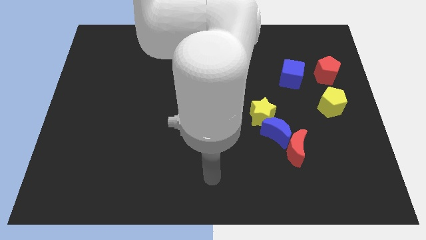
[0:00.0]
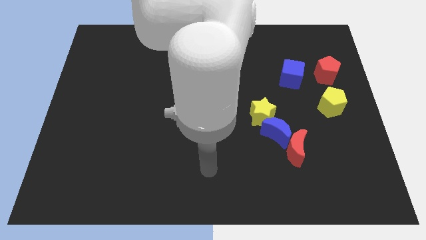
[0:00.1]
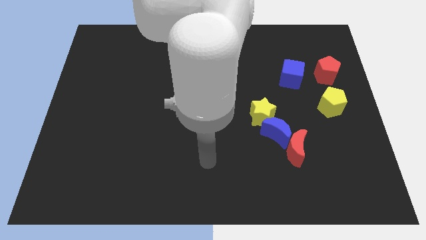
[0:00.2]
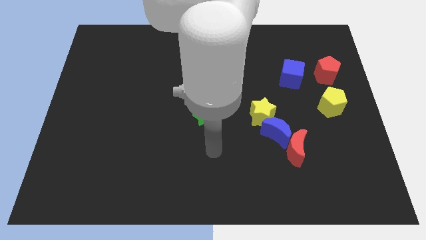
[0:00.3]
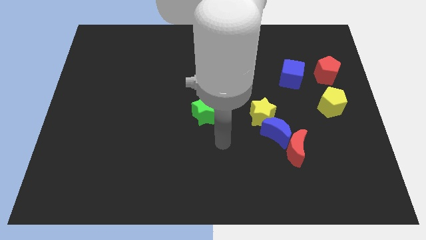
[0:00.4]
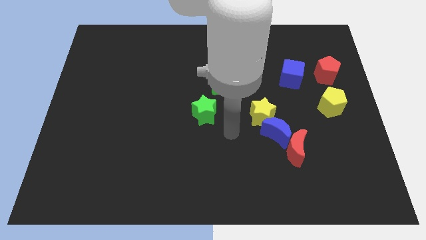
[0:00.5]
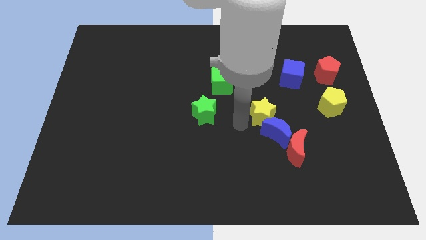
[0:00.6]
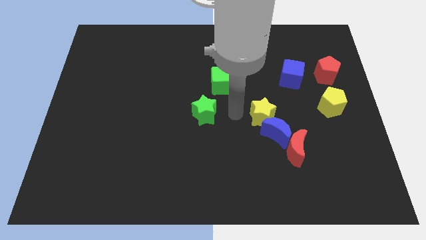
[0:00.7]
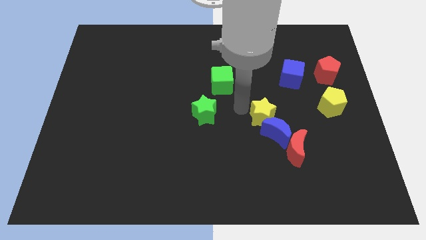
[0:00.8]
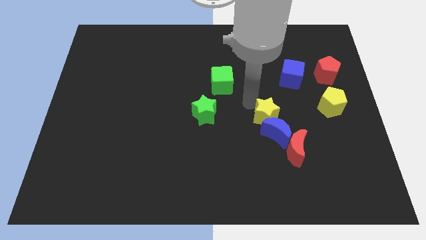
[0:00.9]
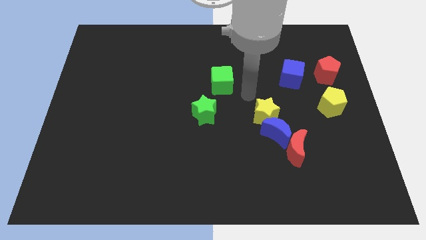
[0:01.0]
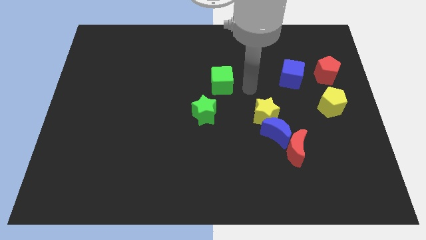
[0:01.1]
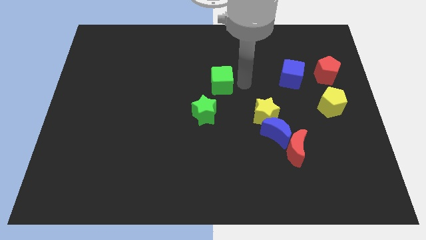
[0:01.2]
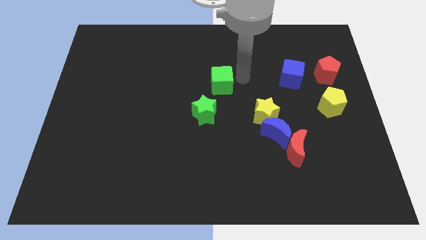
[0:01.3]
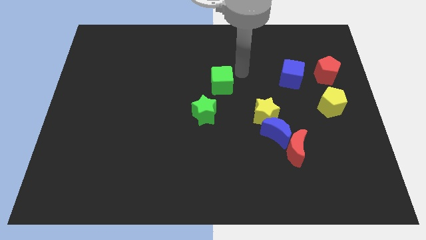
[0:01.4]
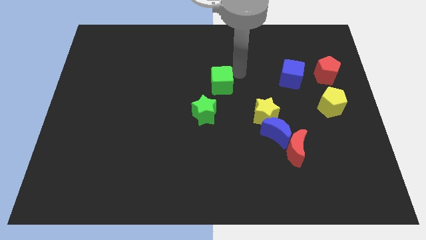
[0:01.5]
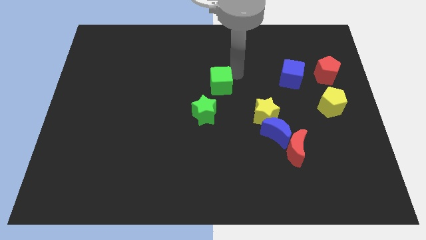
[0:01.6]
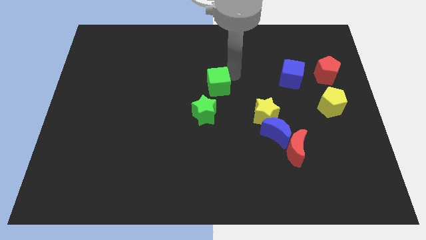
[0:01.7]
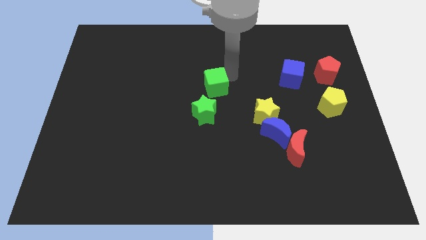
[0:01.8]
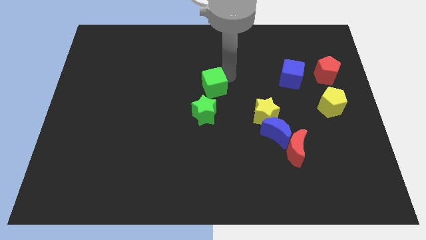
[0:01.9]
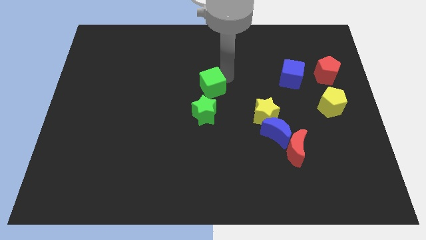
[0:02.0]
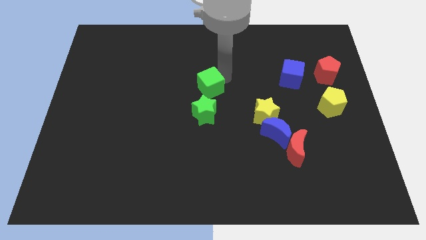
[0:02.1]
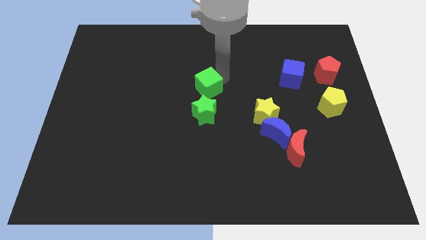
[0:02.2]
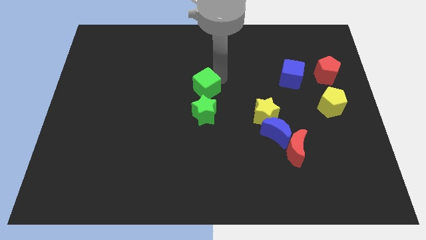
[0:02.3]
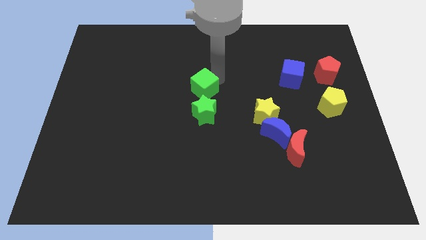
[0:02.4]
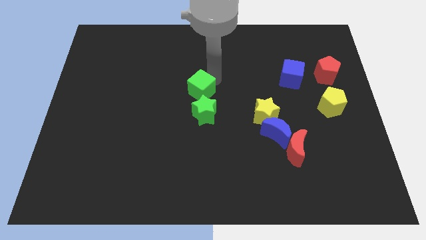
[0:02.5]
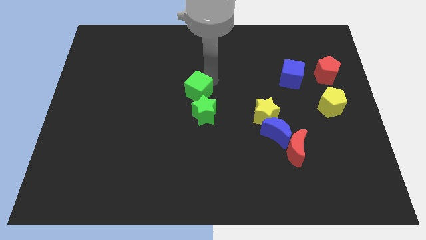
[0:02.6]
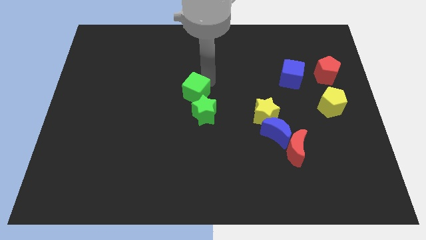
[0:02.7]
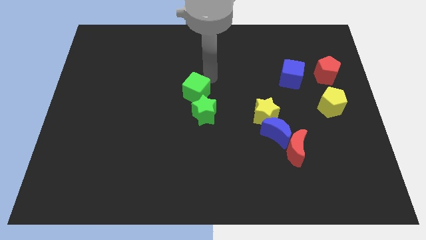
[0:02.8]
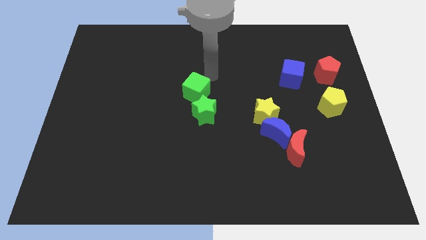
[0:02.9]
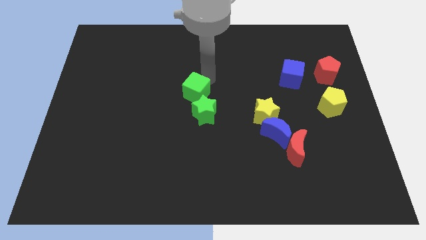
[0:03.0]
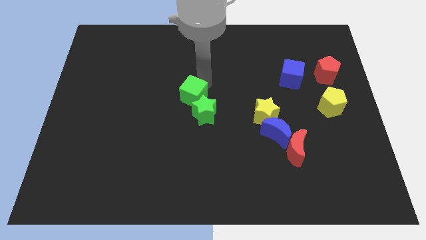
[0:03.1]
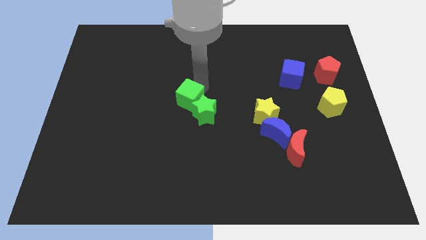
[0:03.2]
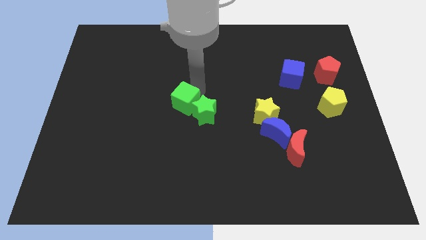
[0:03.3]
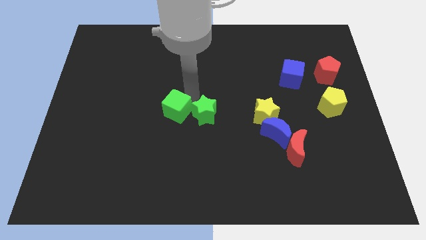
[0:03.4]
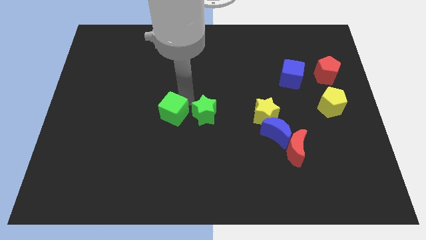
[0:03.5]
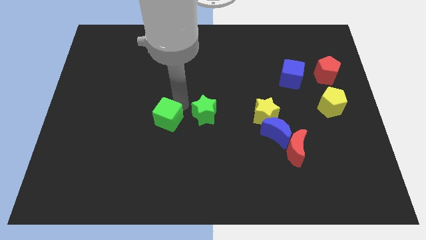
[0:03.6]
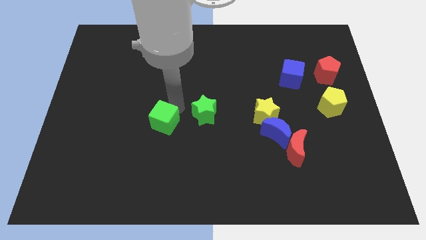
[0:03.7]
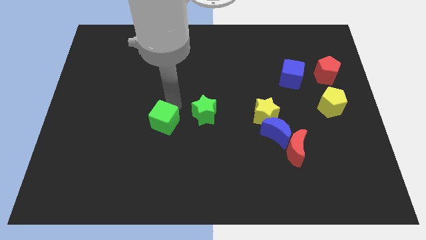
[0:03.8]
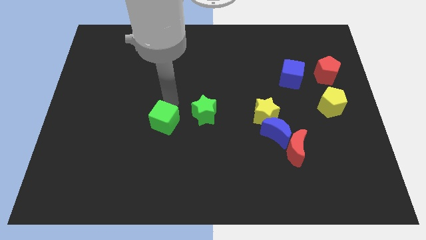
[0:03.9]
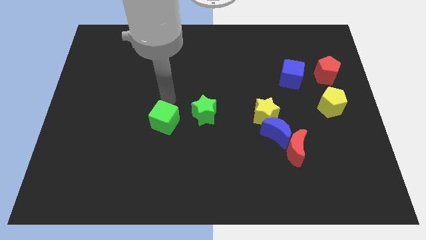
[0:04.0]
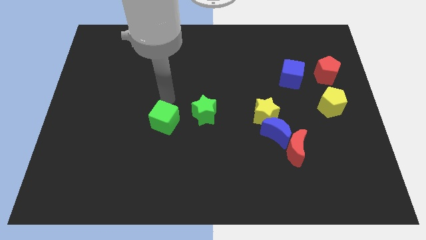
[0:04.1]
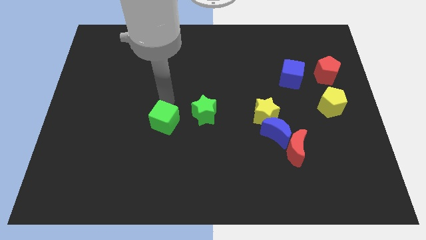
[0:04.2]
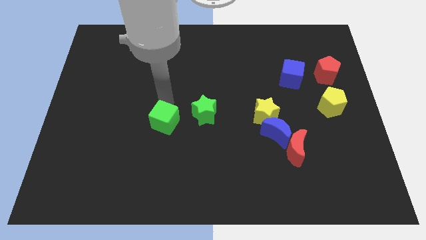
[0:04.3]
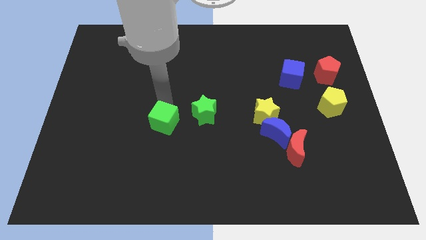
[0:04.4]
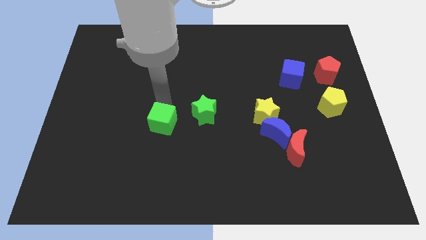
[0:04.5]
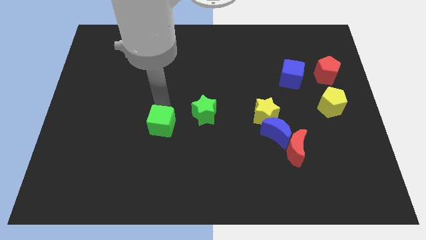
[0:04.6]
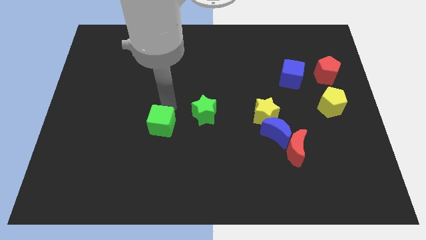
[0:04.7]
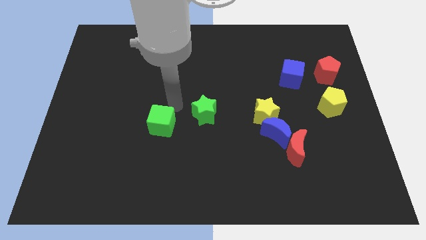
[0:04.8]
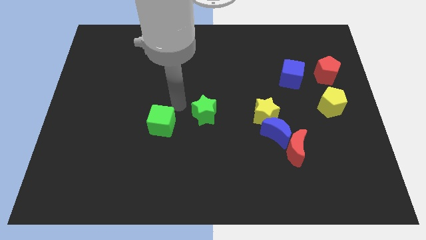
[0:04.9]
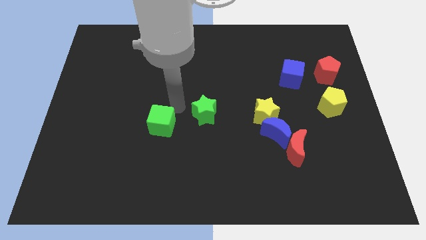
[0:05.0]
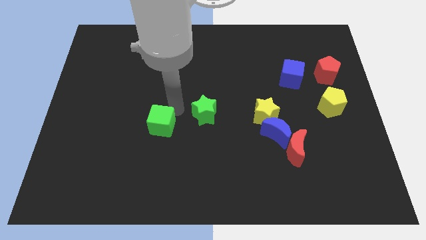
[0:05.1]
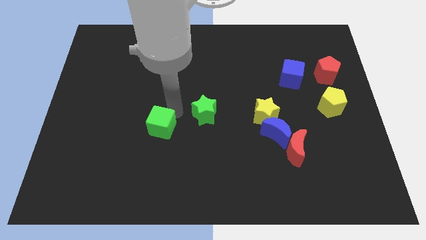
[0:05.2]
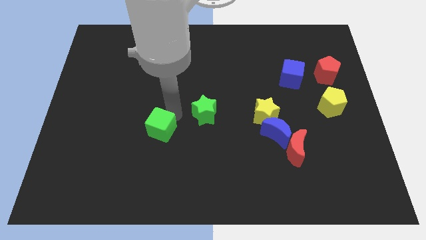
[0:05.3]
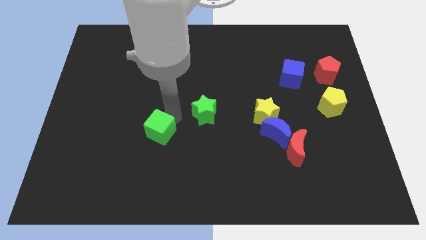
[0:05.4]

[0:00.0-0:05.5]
slide the green cube down and left diagonally

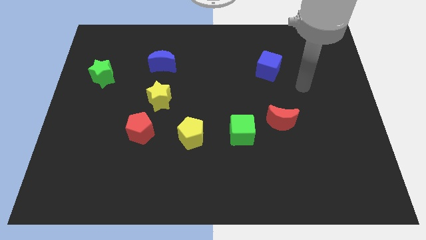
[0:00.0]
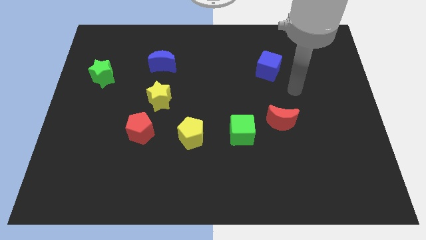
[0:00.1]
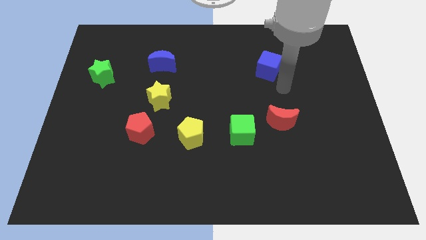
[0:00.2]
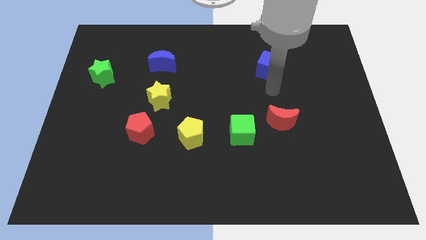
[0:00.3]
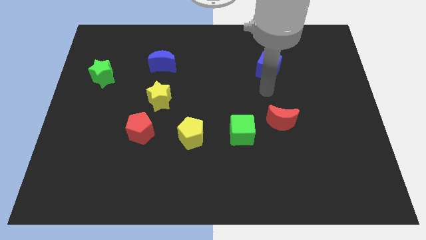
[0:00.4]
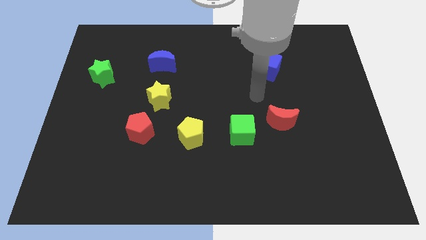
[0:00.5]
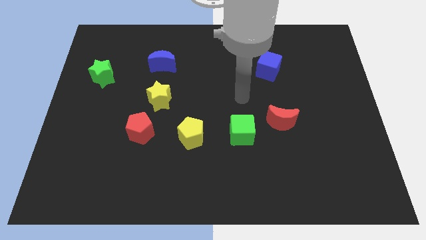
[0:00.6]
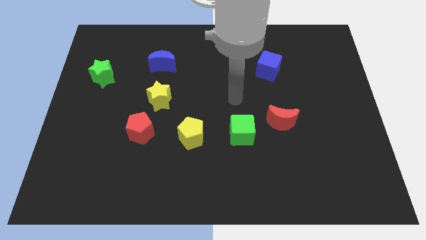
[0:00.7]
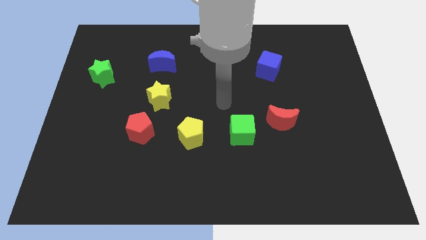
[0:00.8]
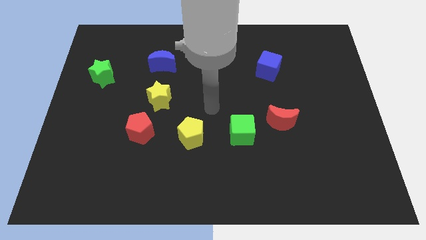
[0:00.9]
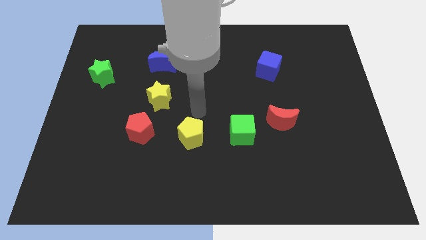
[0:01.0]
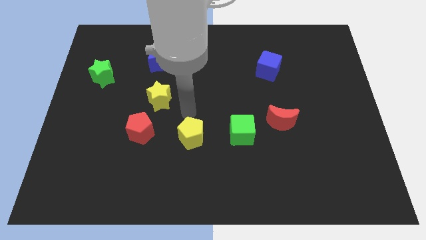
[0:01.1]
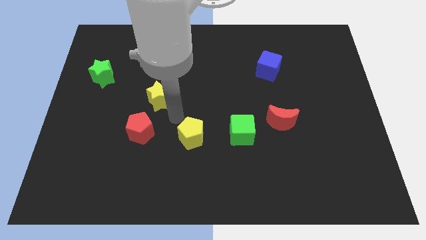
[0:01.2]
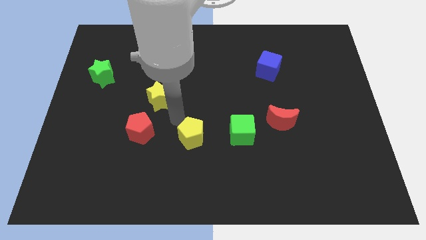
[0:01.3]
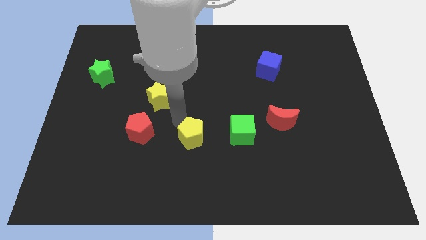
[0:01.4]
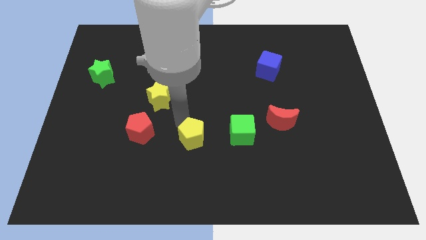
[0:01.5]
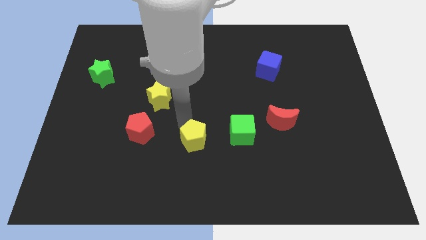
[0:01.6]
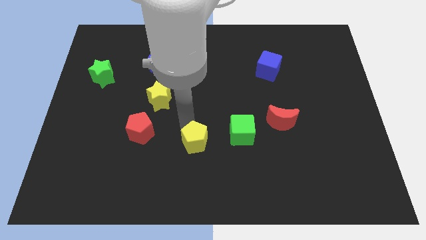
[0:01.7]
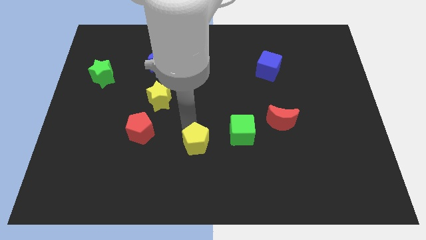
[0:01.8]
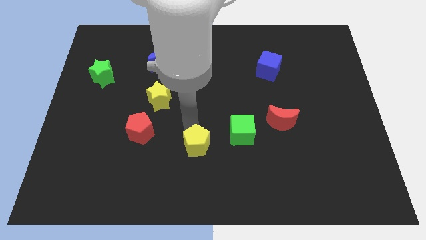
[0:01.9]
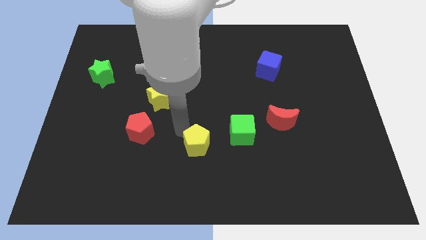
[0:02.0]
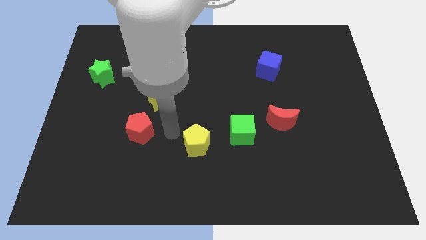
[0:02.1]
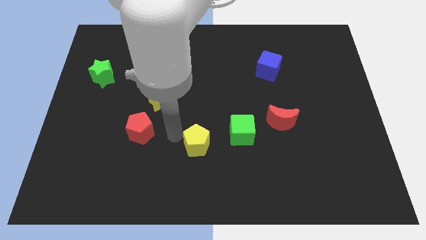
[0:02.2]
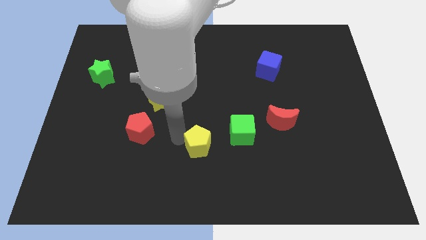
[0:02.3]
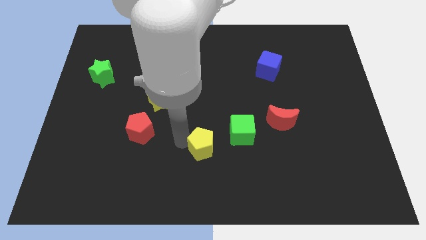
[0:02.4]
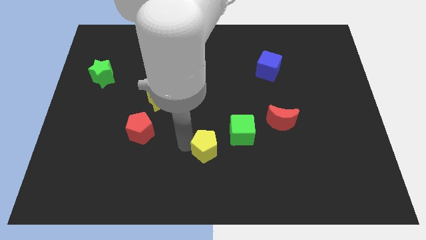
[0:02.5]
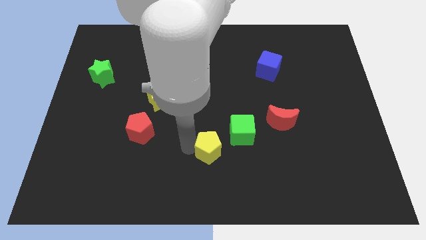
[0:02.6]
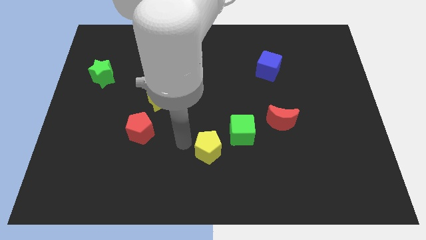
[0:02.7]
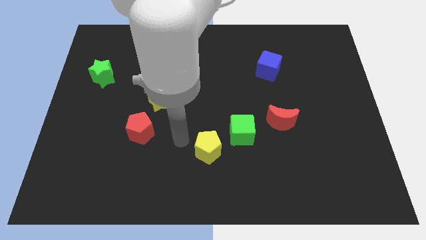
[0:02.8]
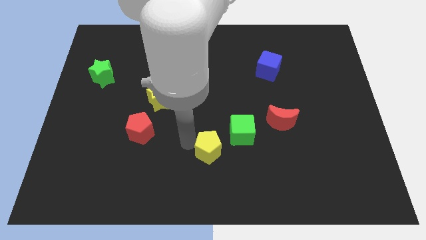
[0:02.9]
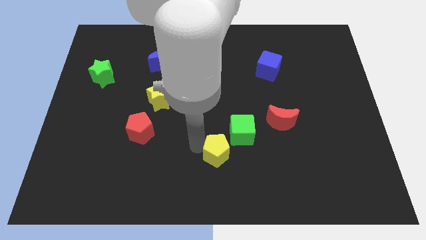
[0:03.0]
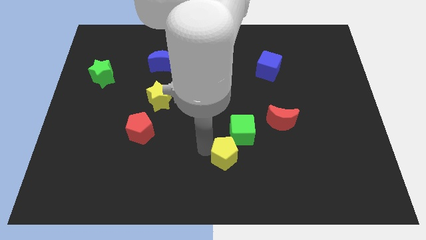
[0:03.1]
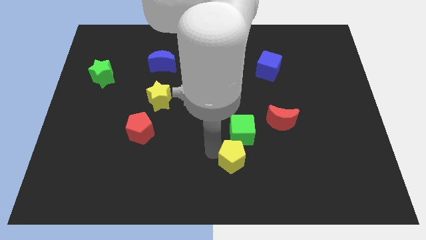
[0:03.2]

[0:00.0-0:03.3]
move the yellow pentagon to the right somewhat
